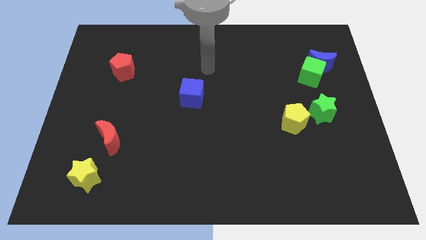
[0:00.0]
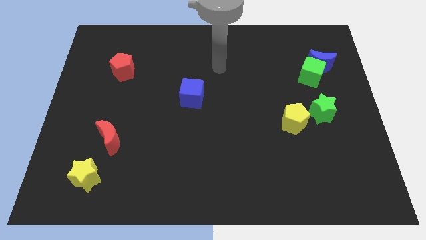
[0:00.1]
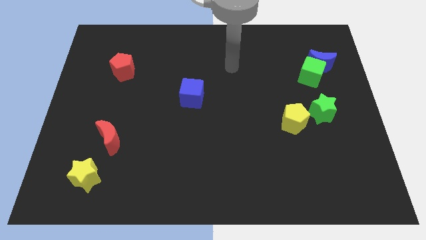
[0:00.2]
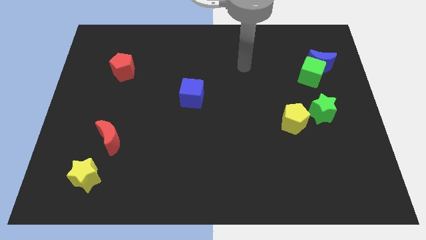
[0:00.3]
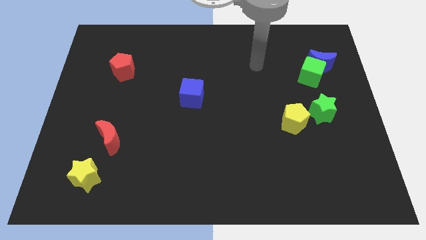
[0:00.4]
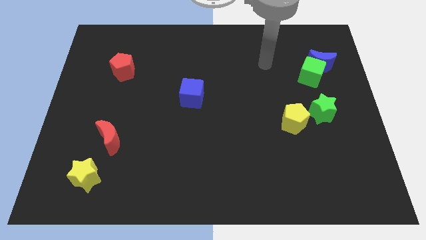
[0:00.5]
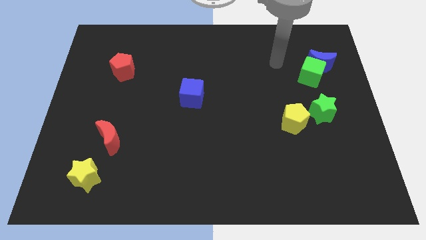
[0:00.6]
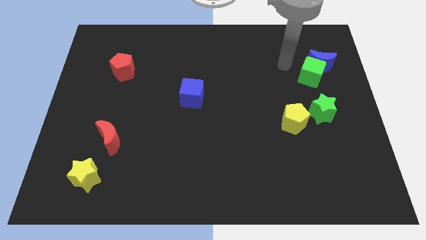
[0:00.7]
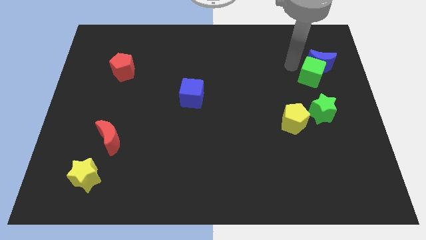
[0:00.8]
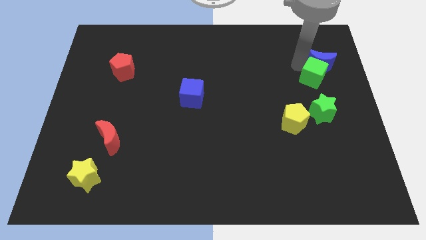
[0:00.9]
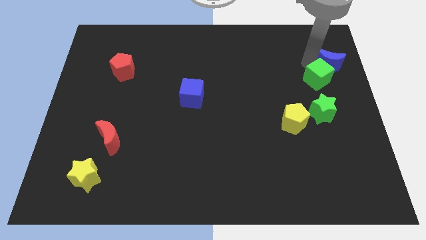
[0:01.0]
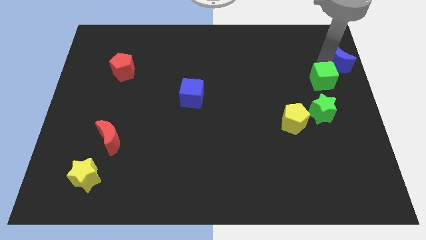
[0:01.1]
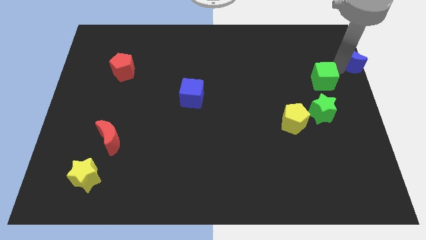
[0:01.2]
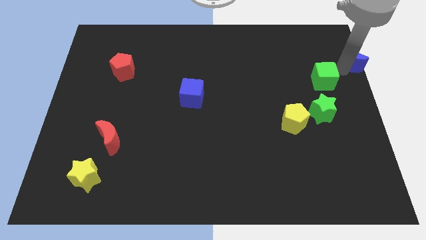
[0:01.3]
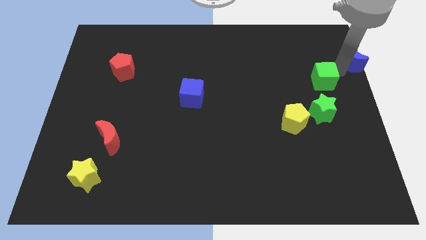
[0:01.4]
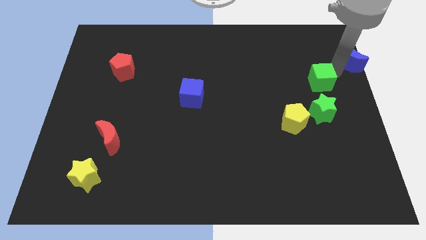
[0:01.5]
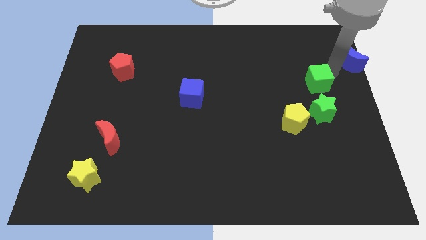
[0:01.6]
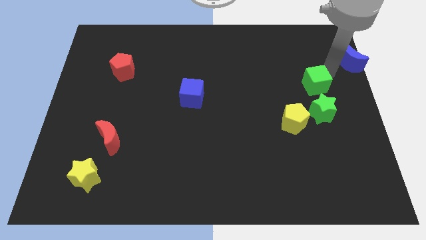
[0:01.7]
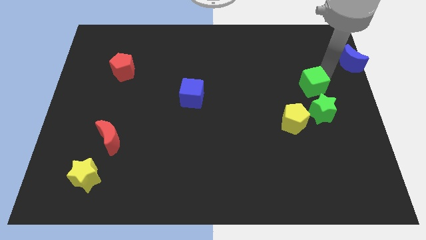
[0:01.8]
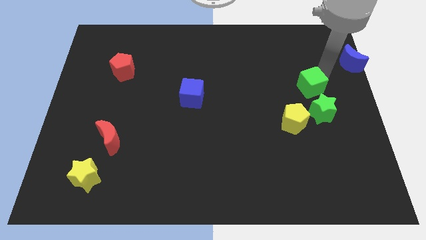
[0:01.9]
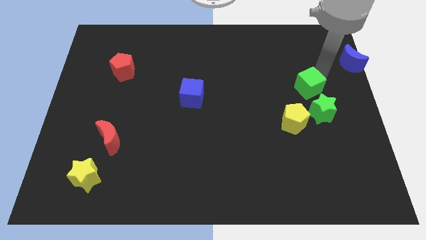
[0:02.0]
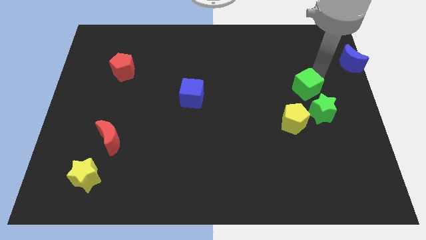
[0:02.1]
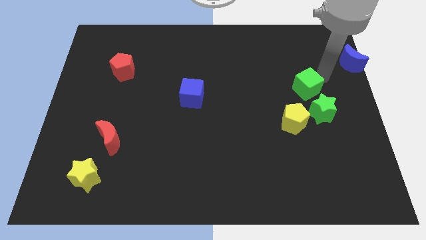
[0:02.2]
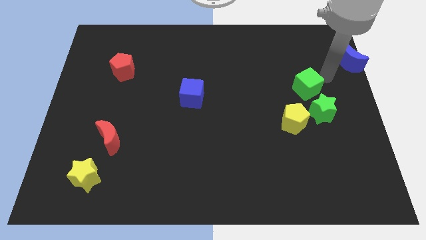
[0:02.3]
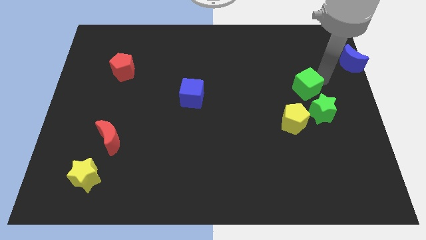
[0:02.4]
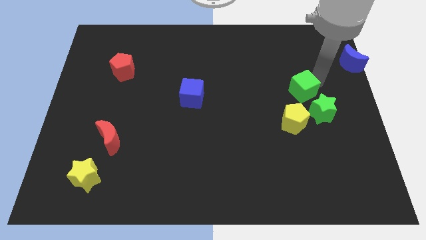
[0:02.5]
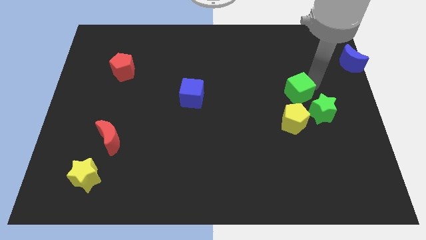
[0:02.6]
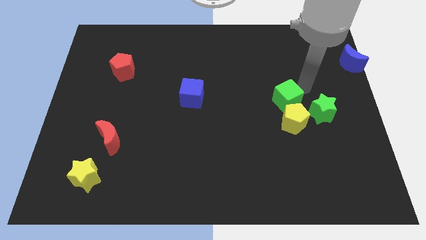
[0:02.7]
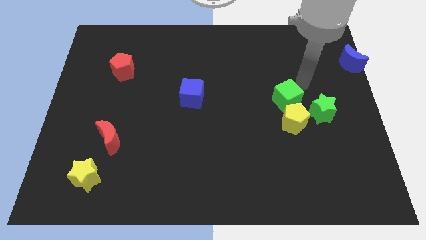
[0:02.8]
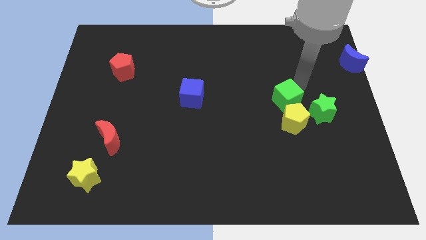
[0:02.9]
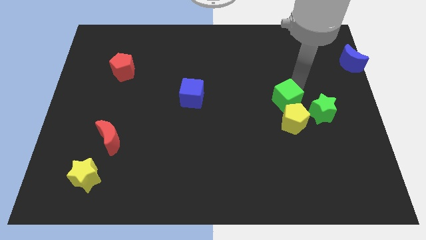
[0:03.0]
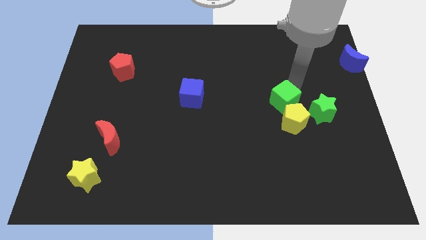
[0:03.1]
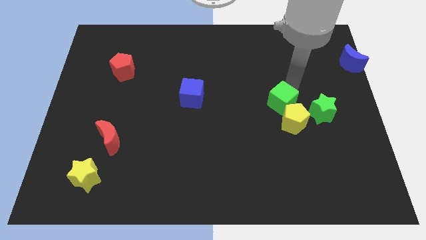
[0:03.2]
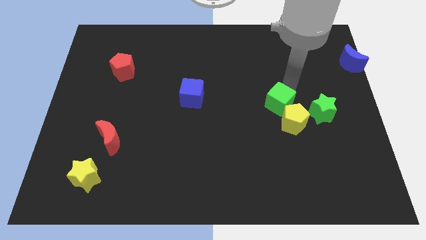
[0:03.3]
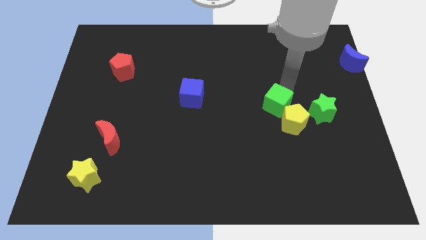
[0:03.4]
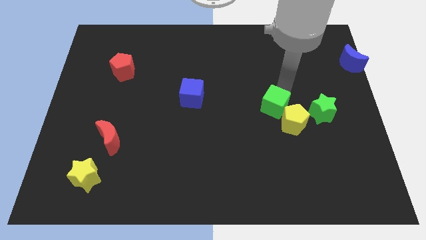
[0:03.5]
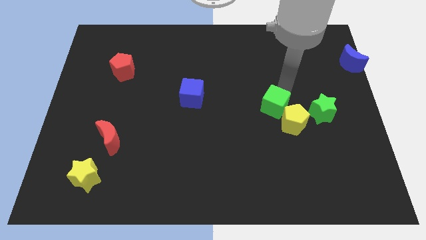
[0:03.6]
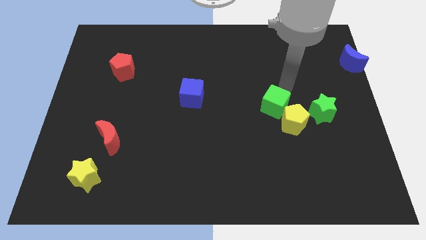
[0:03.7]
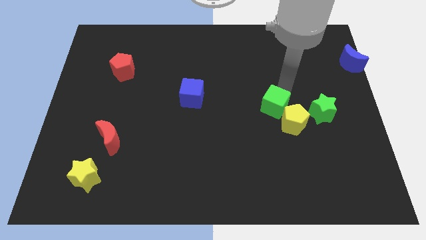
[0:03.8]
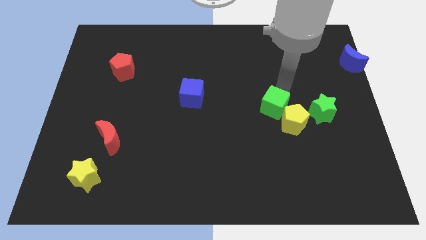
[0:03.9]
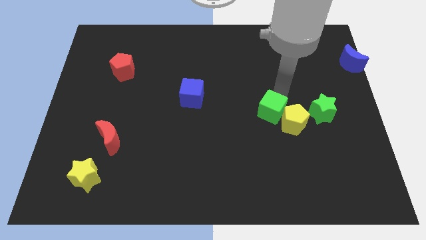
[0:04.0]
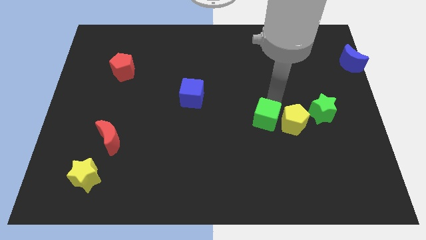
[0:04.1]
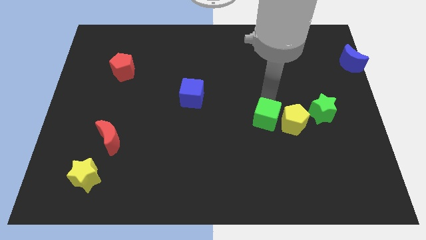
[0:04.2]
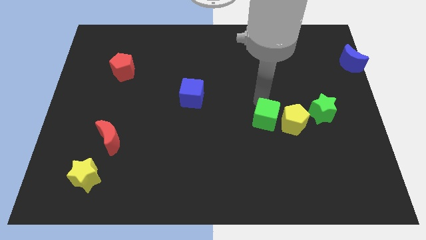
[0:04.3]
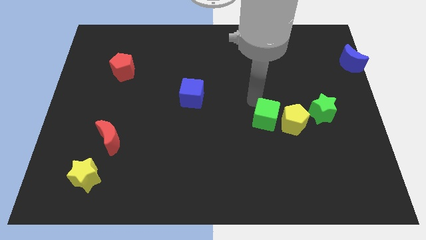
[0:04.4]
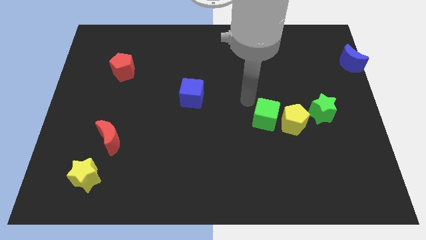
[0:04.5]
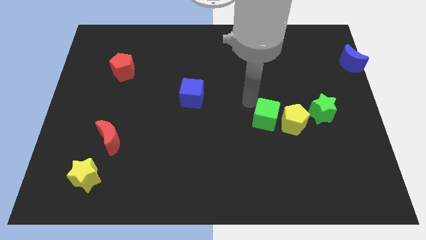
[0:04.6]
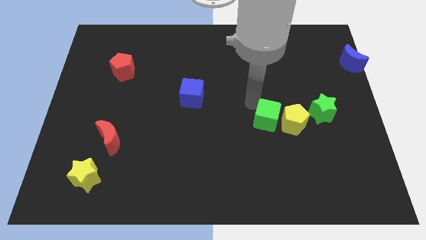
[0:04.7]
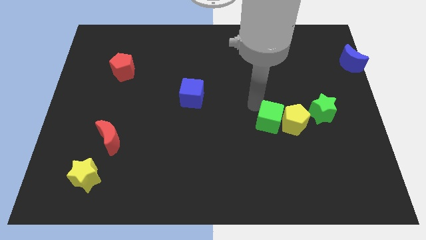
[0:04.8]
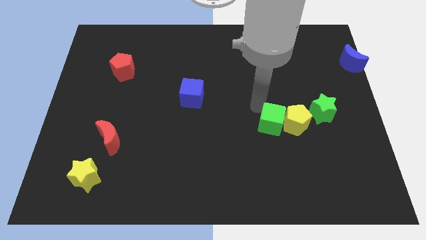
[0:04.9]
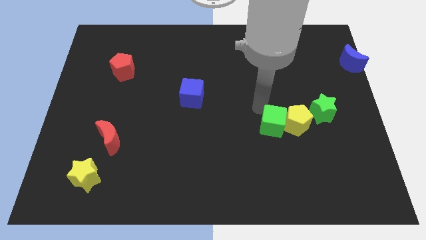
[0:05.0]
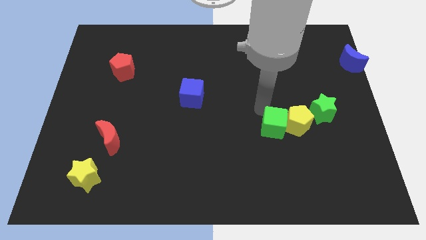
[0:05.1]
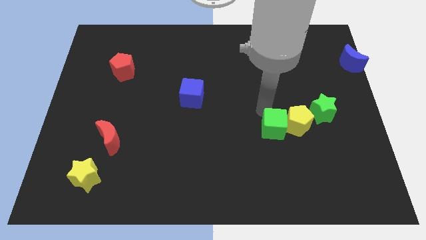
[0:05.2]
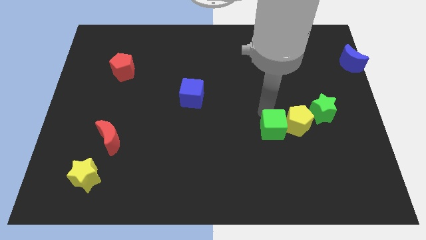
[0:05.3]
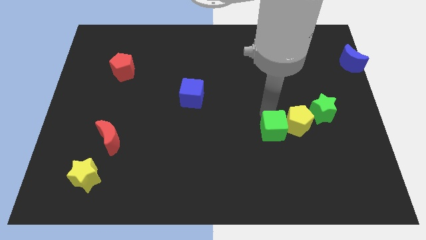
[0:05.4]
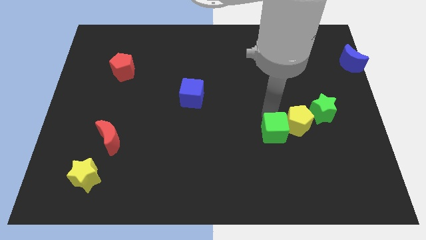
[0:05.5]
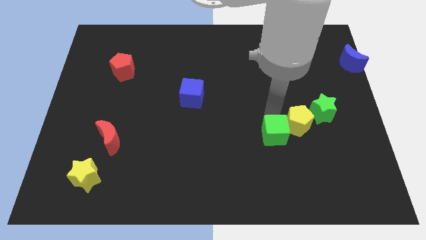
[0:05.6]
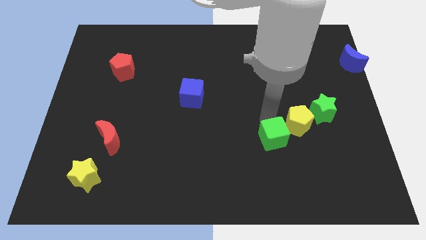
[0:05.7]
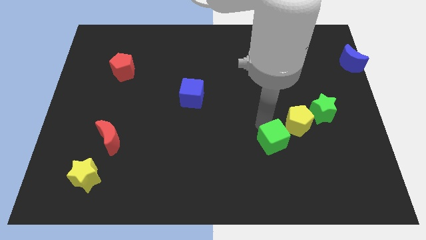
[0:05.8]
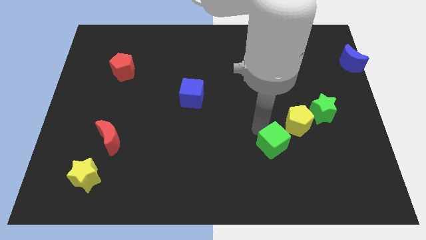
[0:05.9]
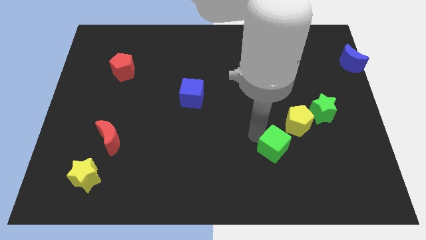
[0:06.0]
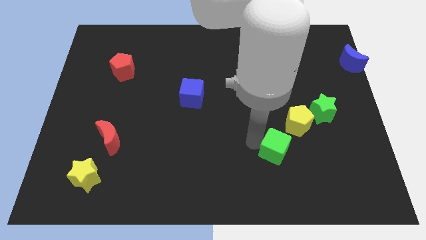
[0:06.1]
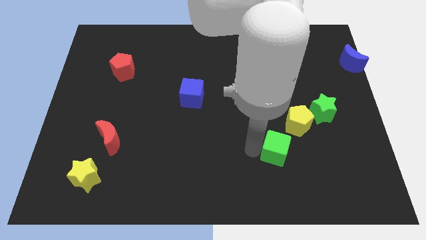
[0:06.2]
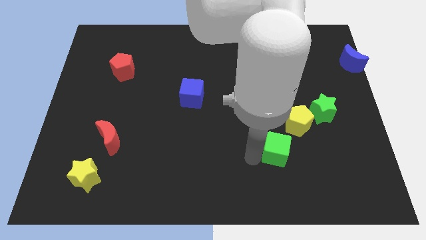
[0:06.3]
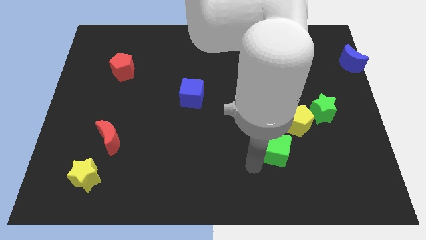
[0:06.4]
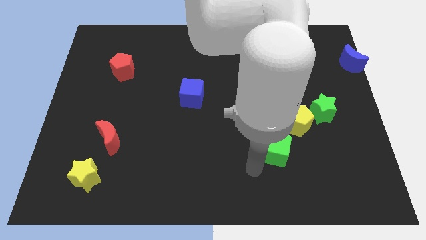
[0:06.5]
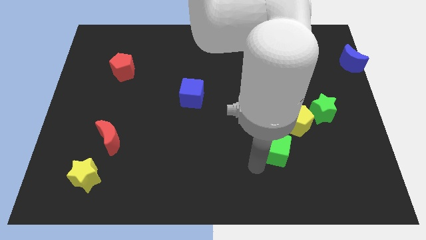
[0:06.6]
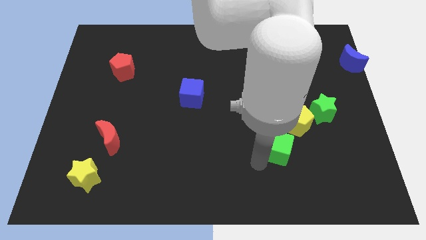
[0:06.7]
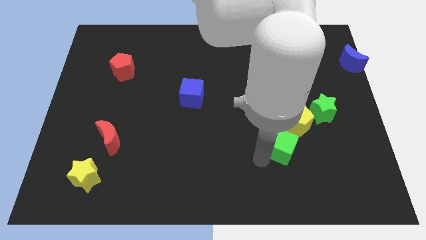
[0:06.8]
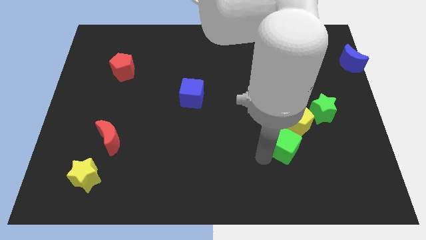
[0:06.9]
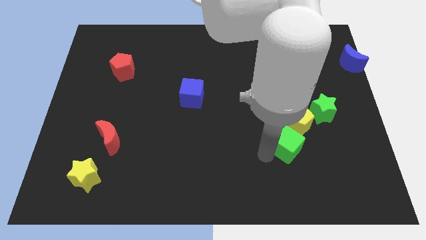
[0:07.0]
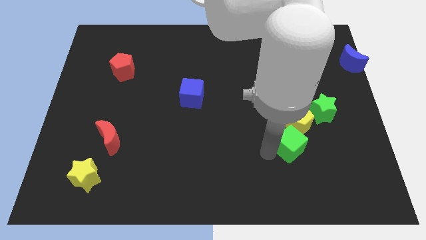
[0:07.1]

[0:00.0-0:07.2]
put the green cube to the bottom left of the green star
